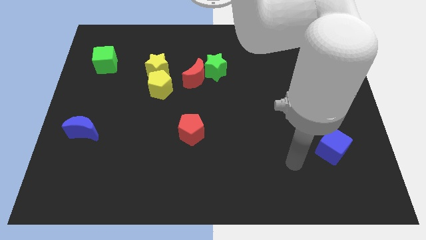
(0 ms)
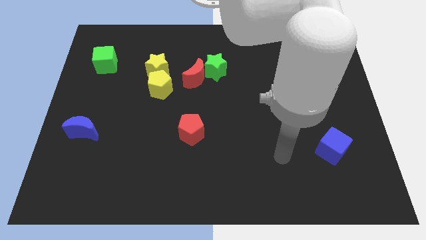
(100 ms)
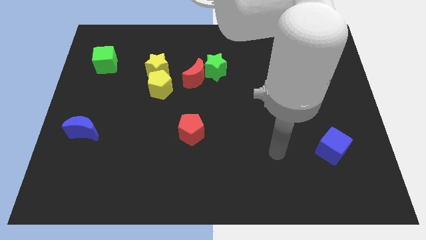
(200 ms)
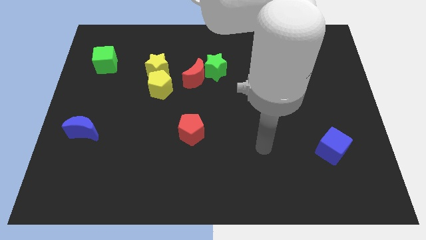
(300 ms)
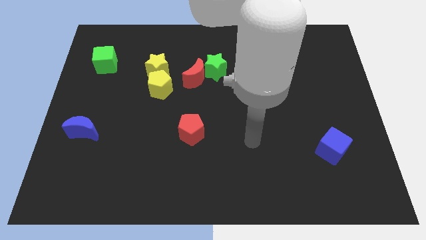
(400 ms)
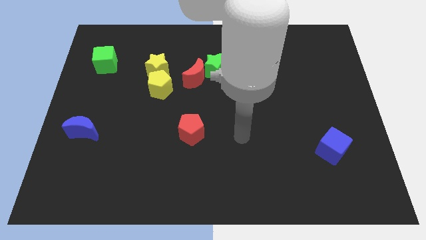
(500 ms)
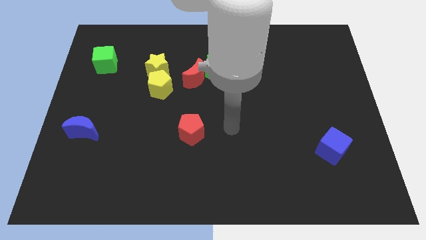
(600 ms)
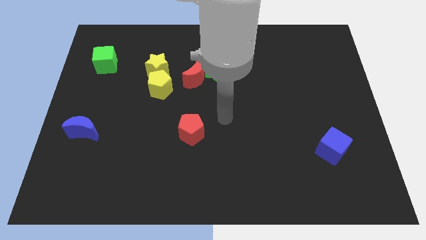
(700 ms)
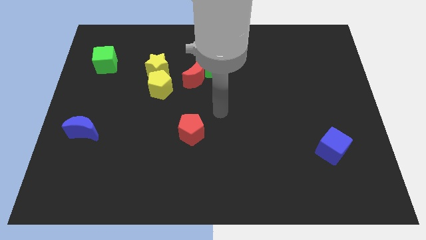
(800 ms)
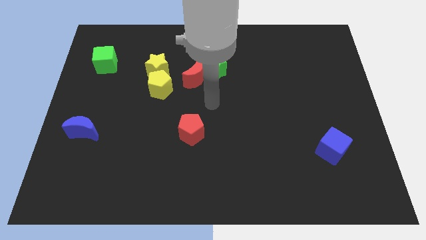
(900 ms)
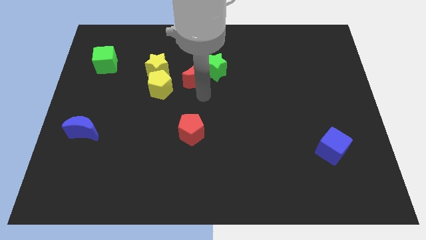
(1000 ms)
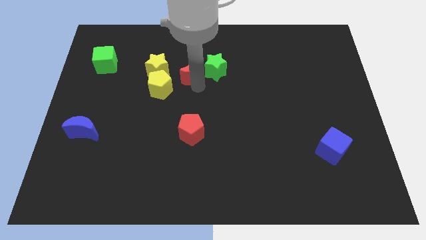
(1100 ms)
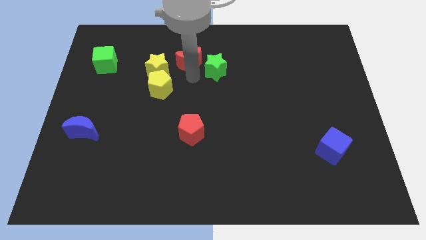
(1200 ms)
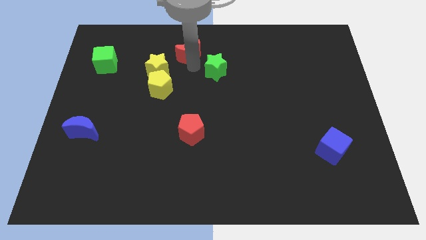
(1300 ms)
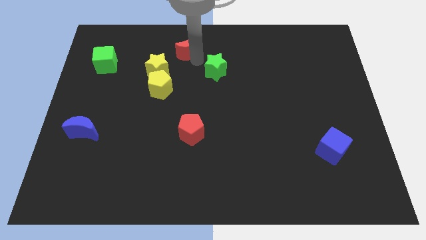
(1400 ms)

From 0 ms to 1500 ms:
pull the green star apart from the red moon

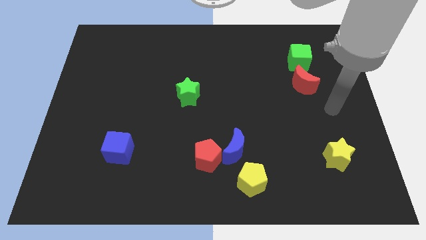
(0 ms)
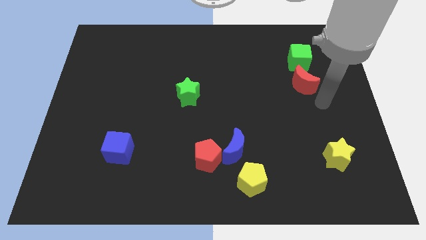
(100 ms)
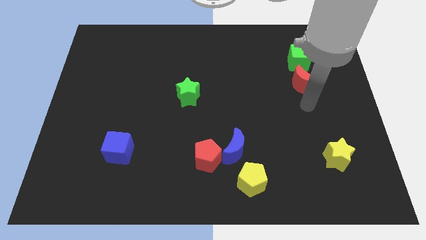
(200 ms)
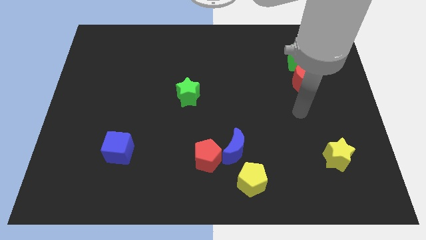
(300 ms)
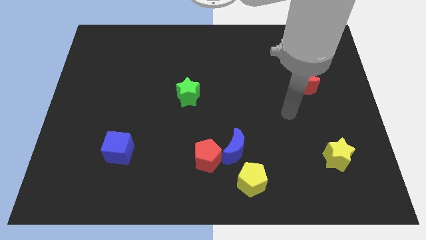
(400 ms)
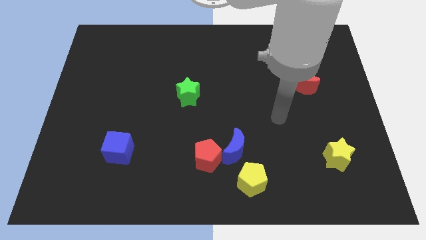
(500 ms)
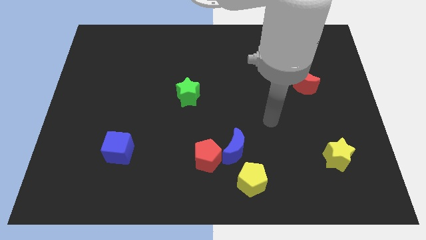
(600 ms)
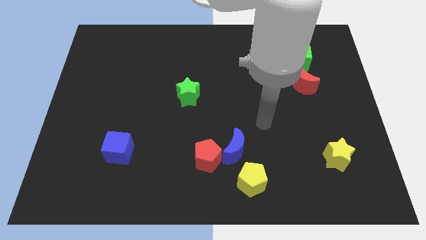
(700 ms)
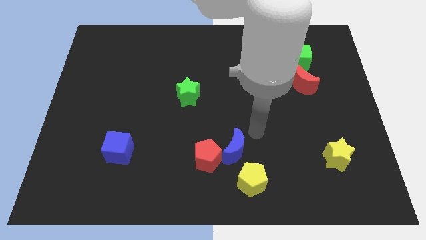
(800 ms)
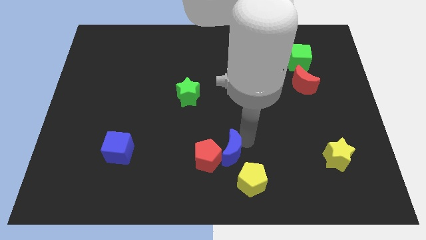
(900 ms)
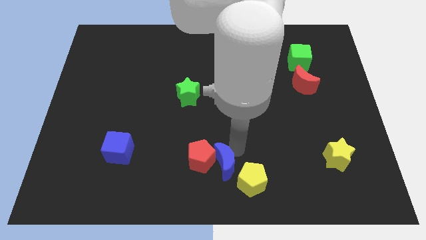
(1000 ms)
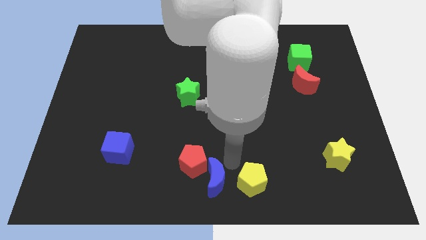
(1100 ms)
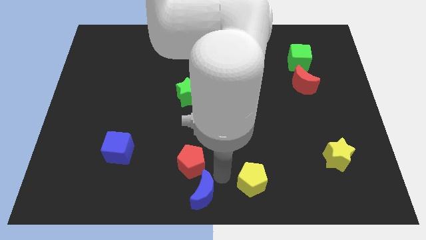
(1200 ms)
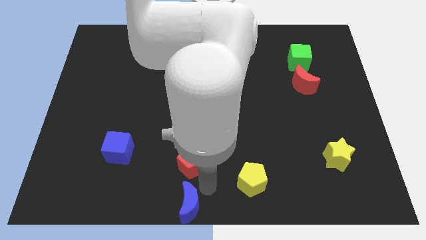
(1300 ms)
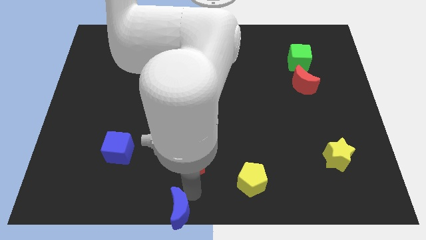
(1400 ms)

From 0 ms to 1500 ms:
separate the red pentagon from the blue moon

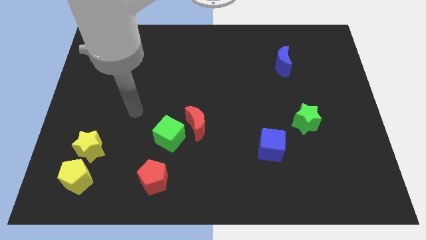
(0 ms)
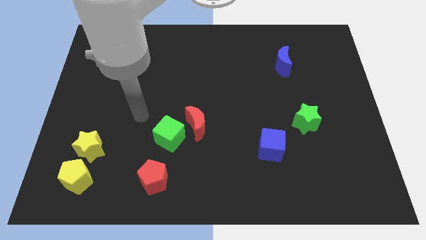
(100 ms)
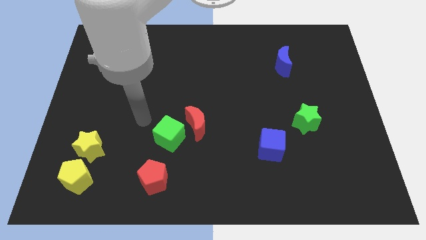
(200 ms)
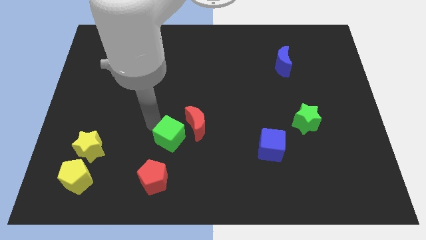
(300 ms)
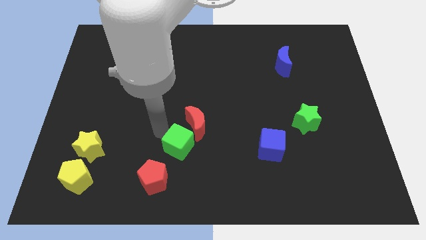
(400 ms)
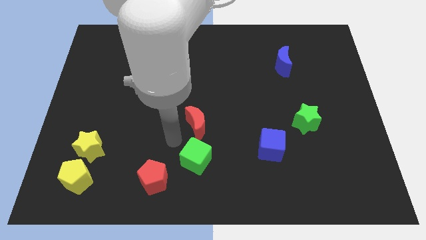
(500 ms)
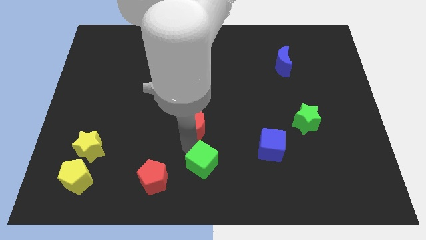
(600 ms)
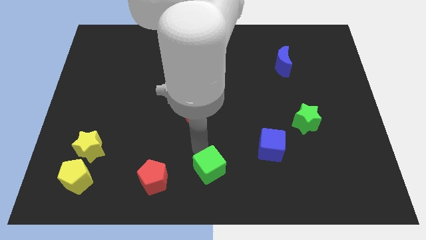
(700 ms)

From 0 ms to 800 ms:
move the red moon away from the green cube

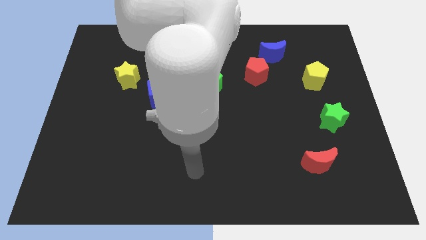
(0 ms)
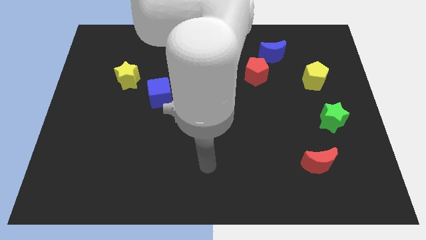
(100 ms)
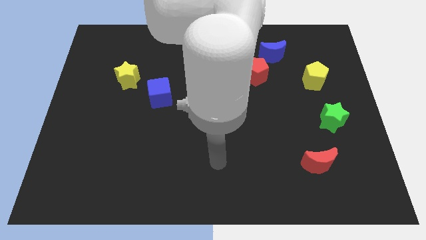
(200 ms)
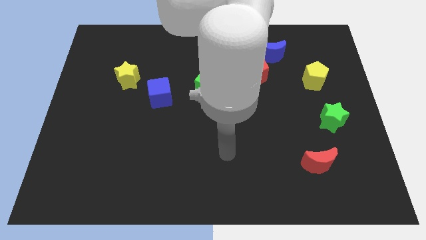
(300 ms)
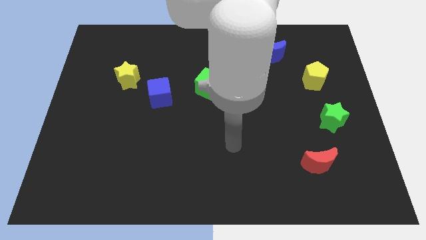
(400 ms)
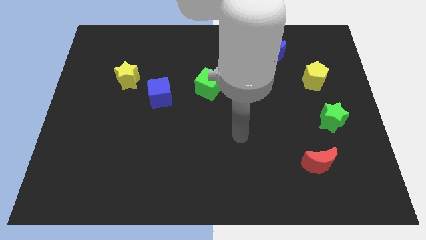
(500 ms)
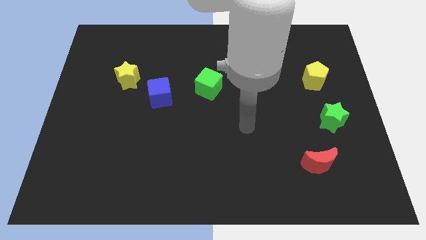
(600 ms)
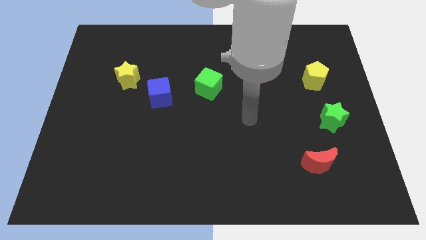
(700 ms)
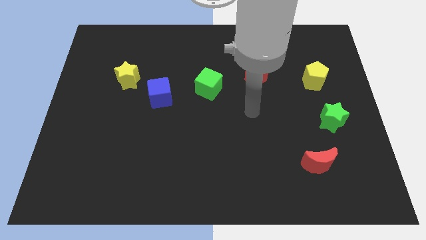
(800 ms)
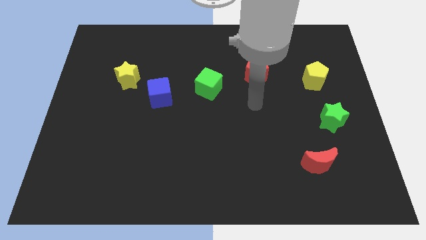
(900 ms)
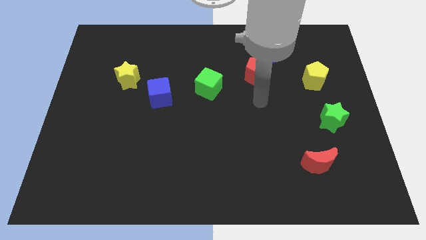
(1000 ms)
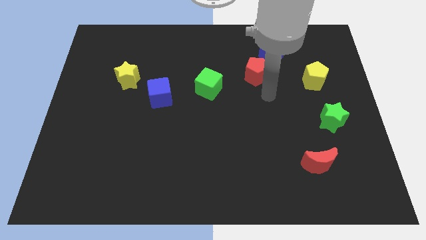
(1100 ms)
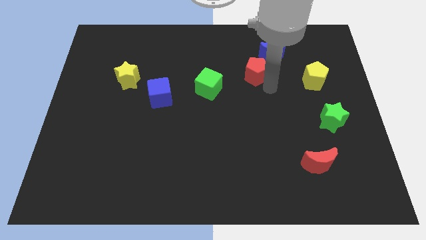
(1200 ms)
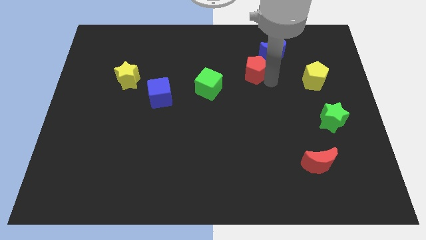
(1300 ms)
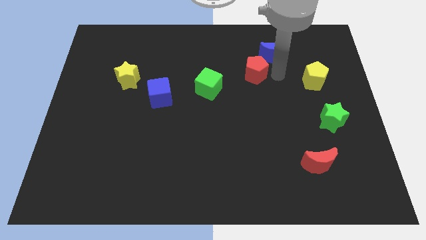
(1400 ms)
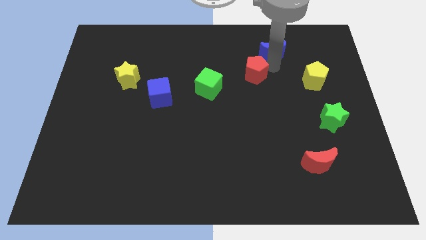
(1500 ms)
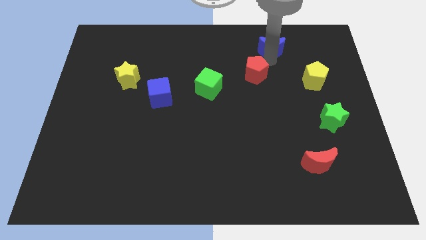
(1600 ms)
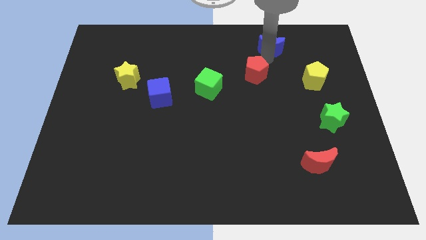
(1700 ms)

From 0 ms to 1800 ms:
move the red pentagon away from the blue moon

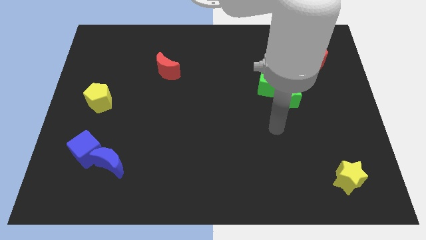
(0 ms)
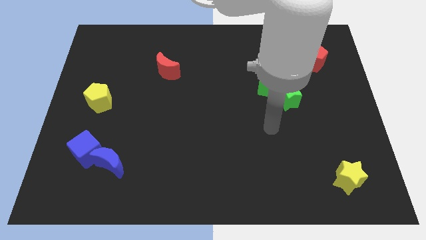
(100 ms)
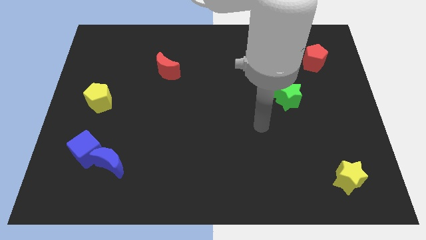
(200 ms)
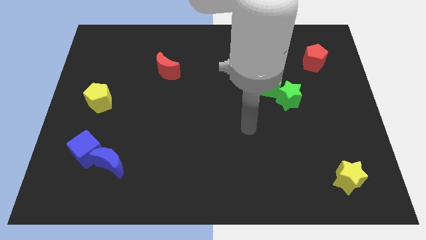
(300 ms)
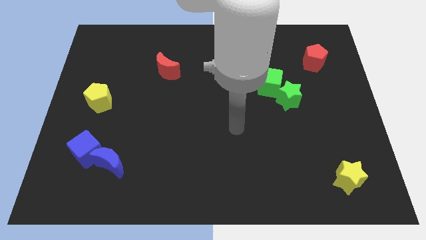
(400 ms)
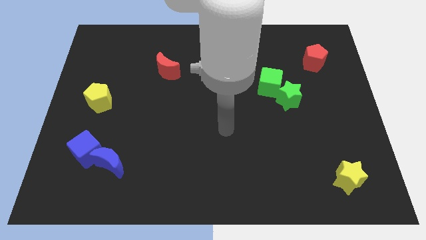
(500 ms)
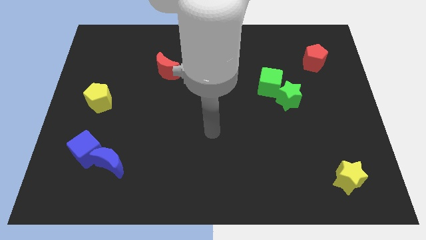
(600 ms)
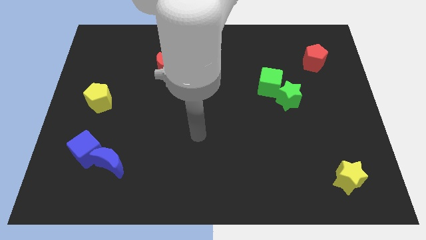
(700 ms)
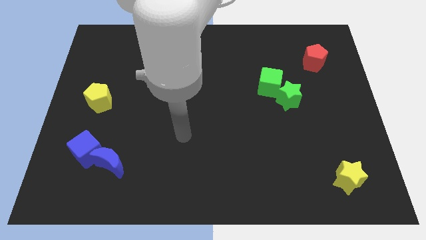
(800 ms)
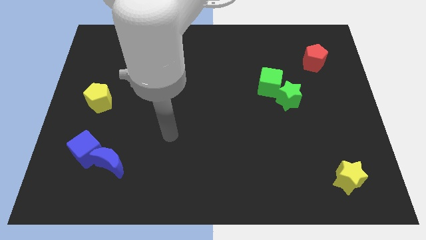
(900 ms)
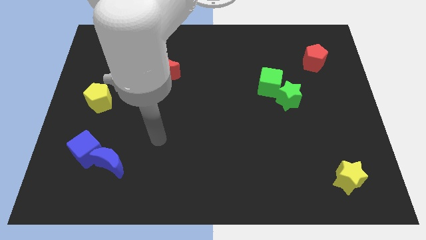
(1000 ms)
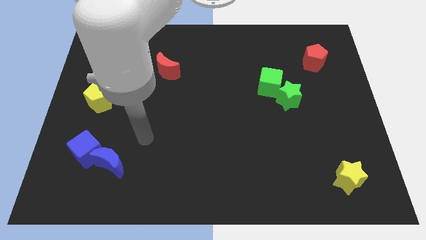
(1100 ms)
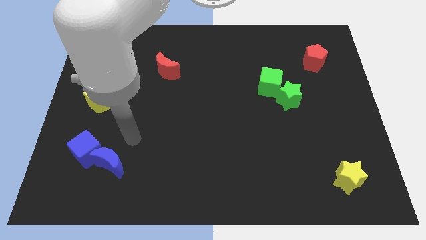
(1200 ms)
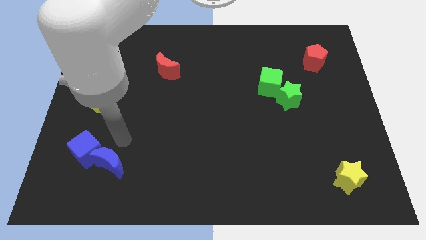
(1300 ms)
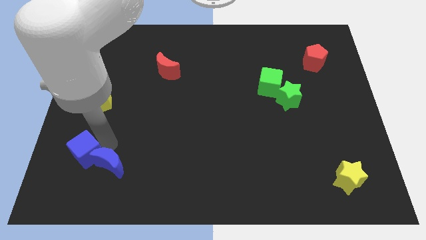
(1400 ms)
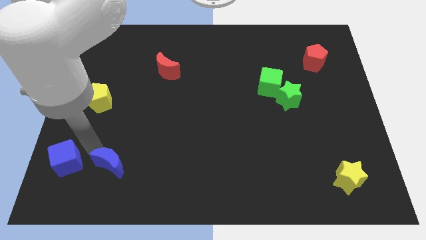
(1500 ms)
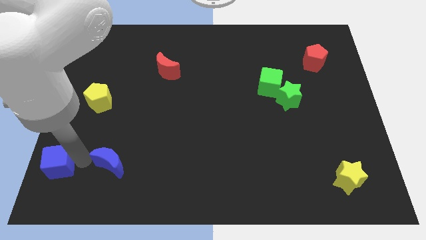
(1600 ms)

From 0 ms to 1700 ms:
move the blue moon away from the blue cube

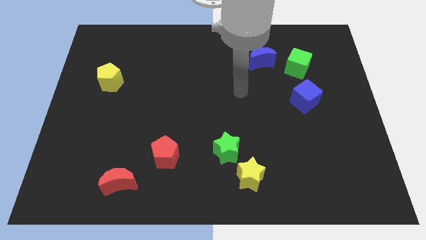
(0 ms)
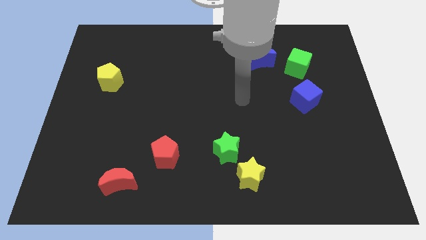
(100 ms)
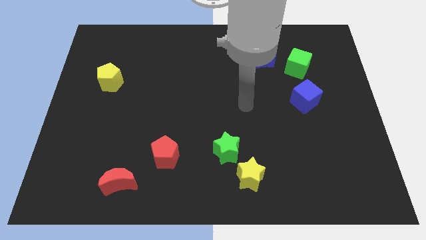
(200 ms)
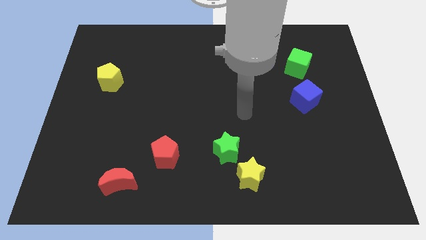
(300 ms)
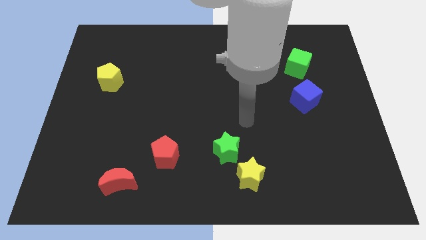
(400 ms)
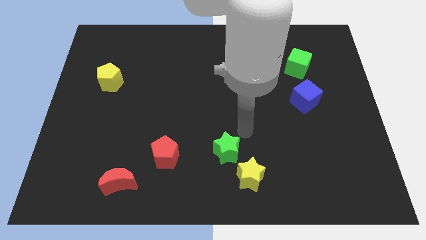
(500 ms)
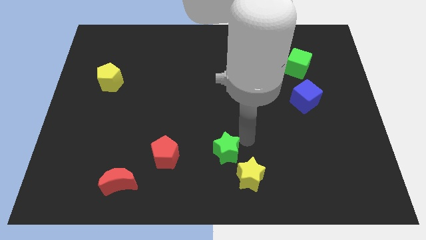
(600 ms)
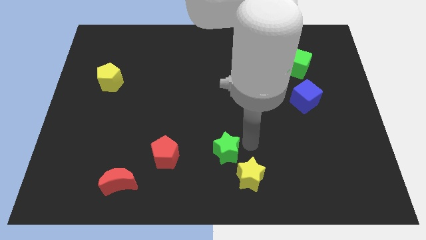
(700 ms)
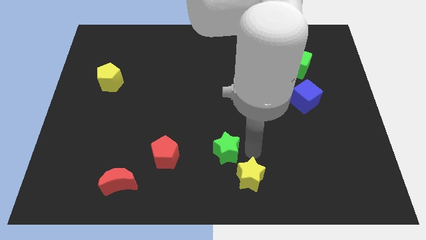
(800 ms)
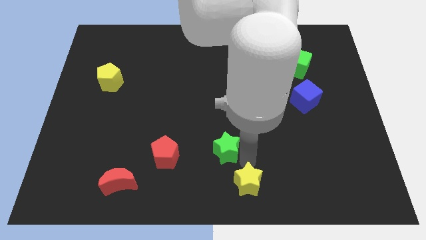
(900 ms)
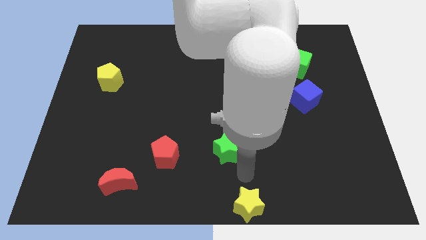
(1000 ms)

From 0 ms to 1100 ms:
move the green star away from the yellow star

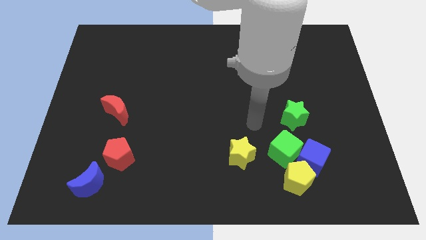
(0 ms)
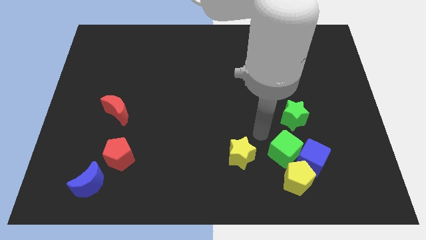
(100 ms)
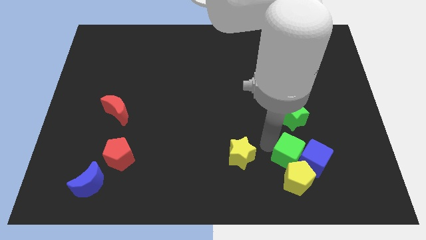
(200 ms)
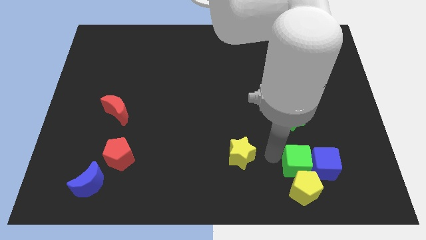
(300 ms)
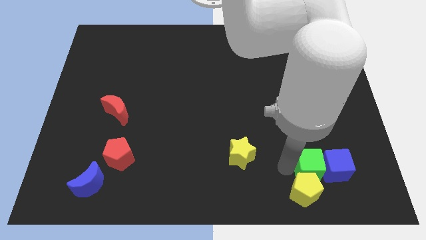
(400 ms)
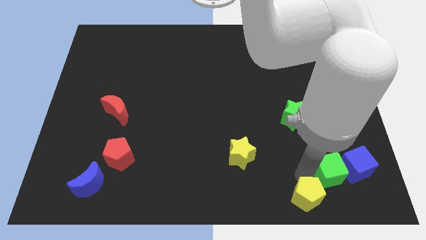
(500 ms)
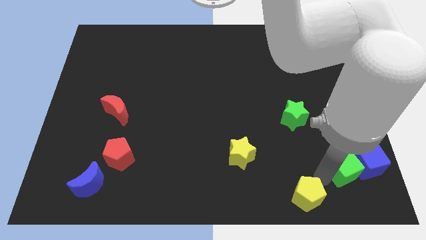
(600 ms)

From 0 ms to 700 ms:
move the blue cube away from the yellow pentagon and green cube

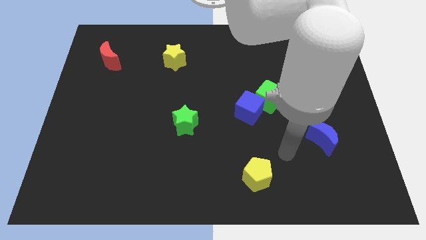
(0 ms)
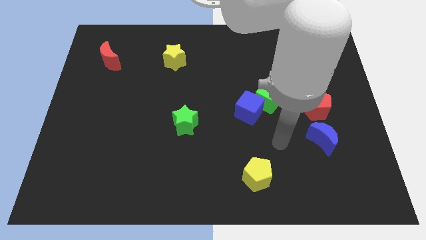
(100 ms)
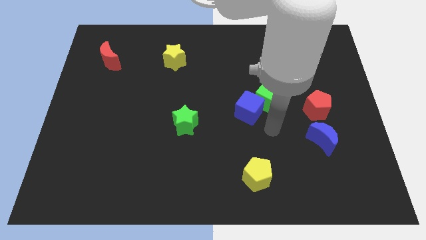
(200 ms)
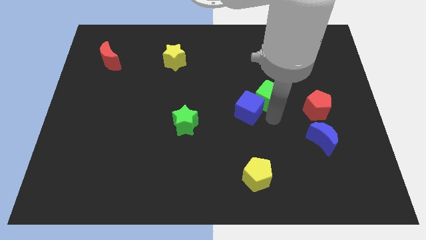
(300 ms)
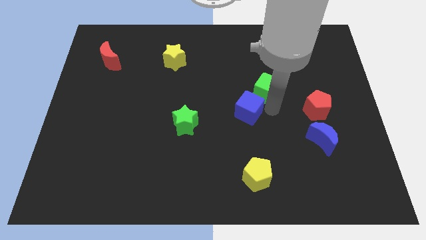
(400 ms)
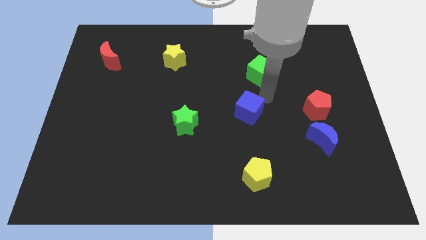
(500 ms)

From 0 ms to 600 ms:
separate the blue cube from the green cube
